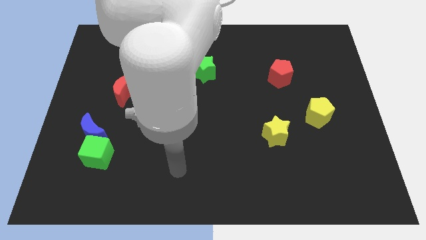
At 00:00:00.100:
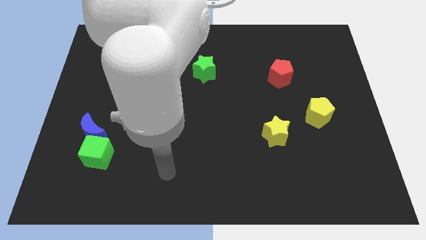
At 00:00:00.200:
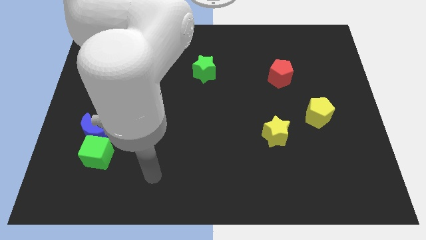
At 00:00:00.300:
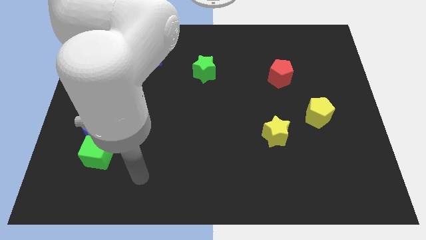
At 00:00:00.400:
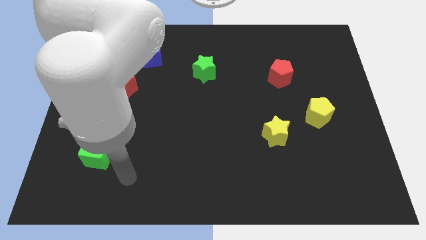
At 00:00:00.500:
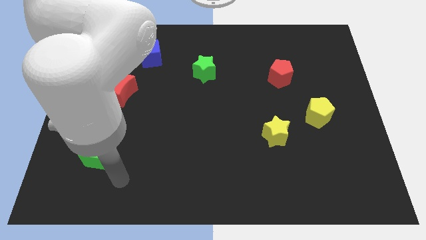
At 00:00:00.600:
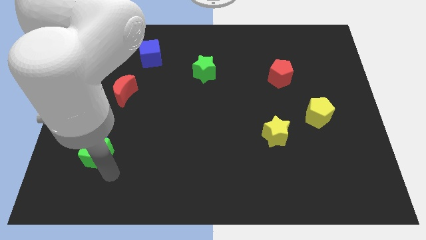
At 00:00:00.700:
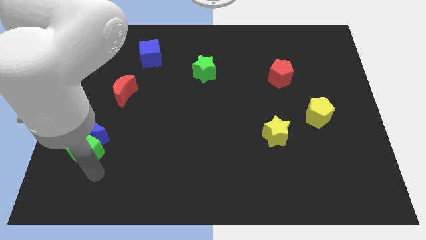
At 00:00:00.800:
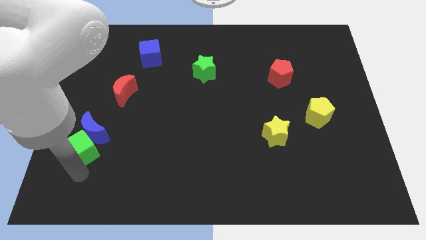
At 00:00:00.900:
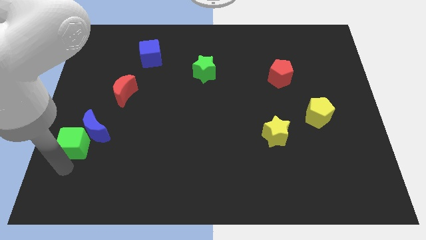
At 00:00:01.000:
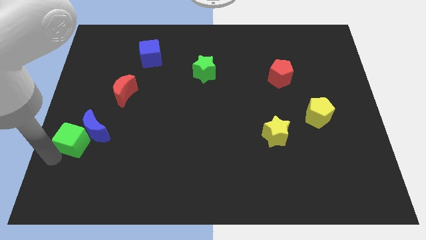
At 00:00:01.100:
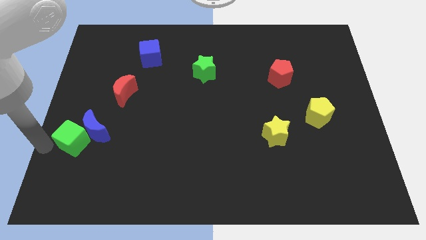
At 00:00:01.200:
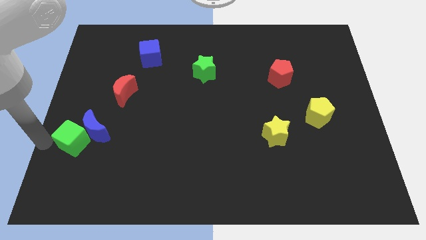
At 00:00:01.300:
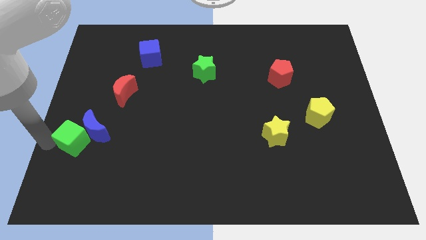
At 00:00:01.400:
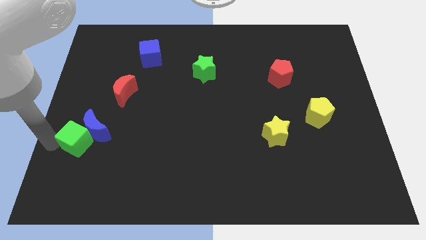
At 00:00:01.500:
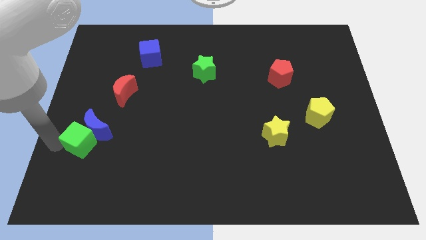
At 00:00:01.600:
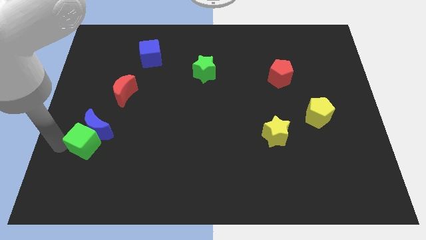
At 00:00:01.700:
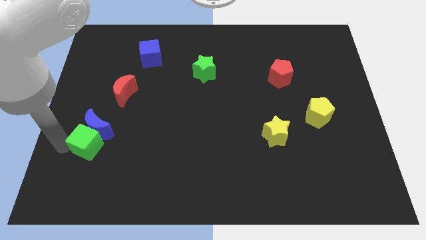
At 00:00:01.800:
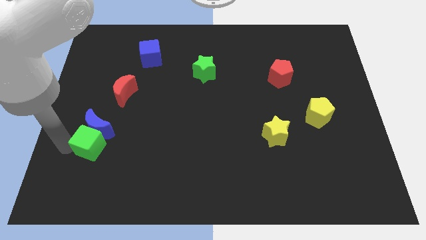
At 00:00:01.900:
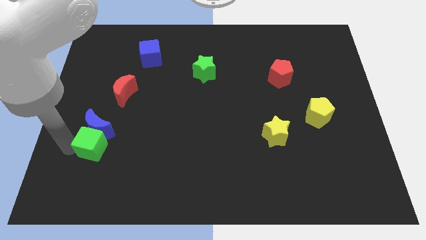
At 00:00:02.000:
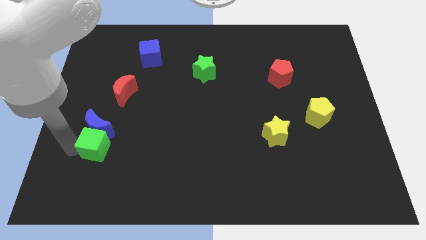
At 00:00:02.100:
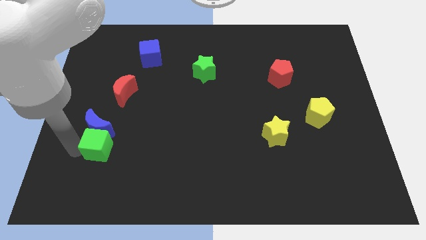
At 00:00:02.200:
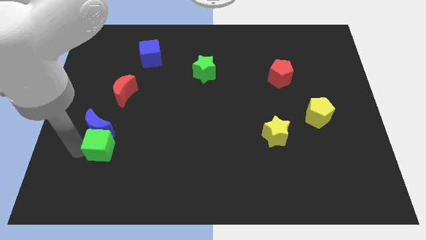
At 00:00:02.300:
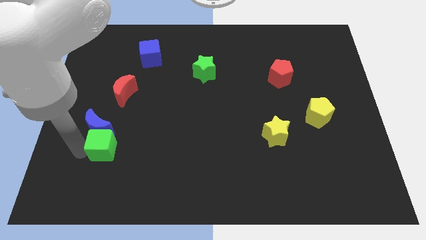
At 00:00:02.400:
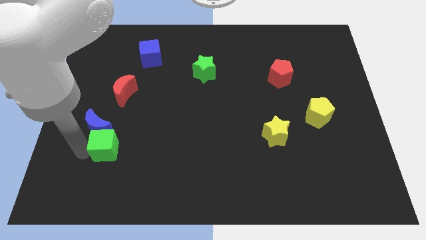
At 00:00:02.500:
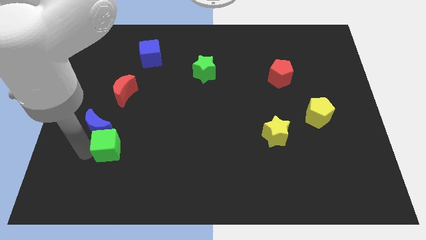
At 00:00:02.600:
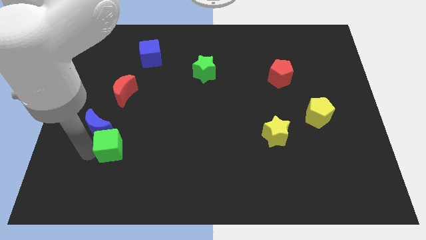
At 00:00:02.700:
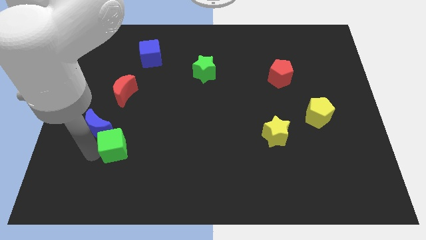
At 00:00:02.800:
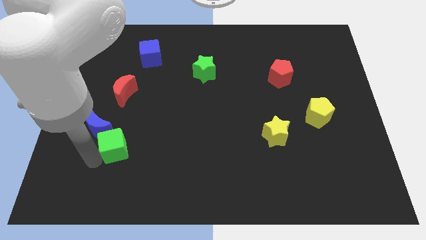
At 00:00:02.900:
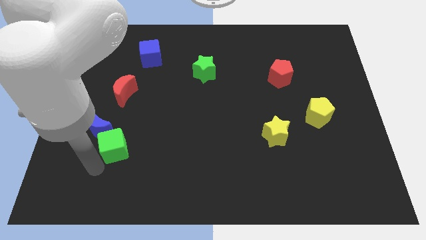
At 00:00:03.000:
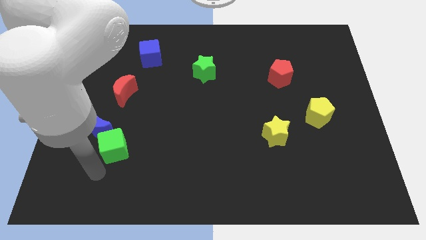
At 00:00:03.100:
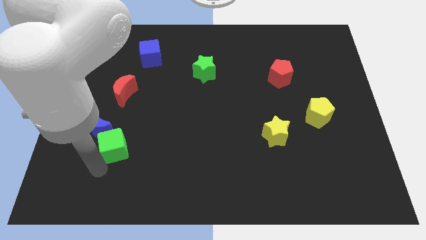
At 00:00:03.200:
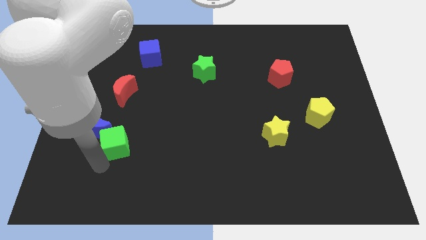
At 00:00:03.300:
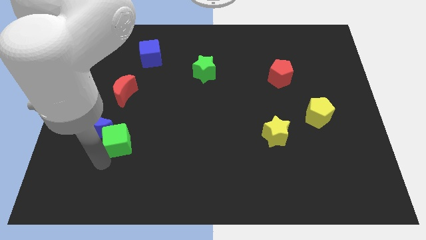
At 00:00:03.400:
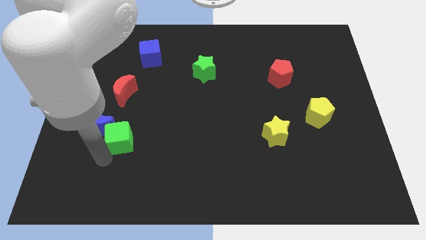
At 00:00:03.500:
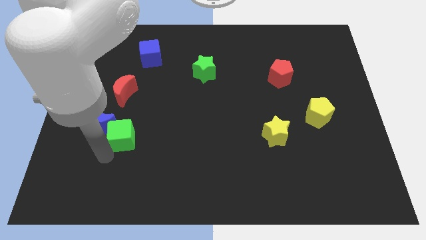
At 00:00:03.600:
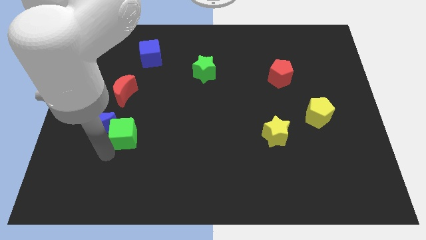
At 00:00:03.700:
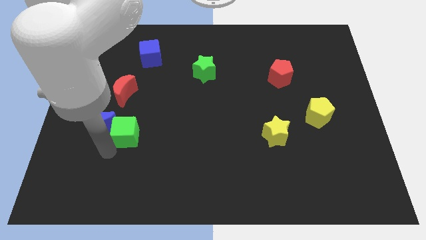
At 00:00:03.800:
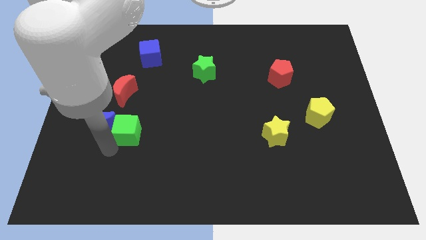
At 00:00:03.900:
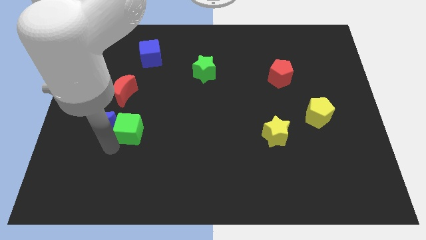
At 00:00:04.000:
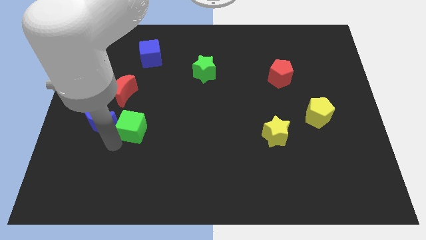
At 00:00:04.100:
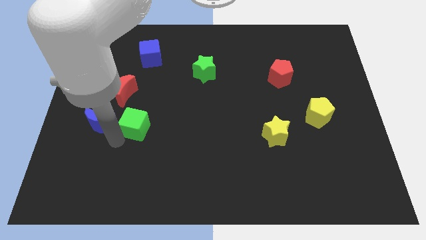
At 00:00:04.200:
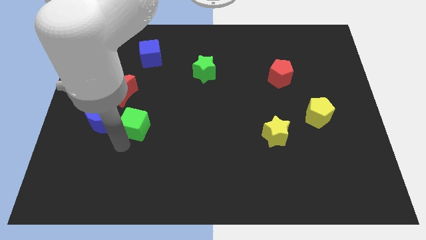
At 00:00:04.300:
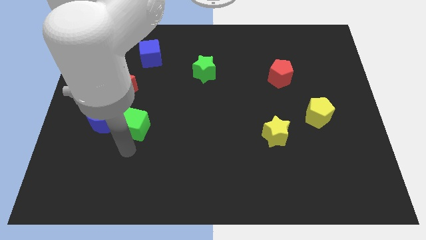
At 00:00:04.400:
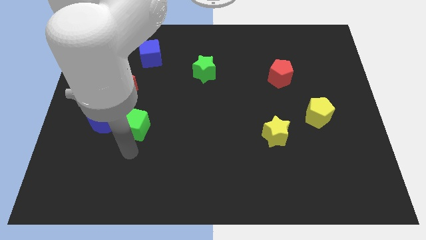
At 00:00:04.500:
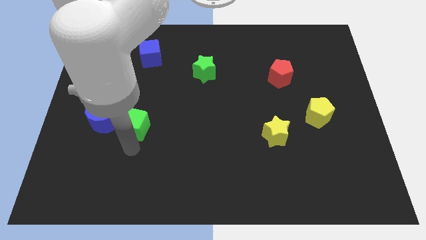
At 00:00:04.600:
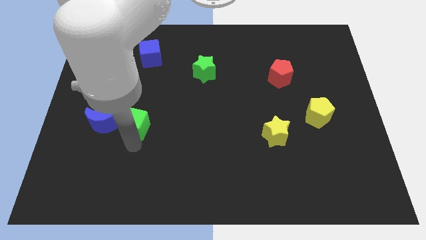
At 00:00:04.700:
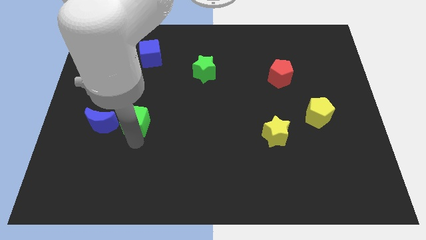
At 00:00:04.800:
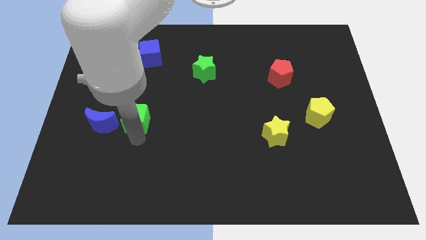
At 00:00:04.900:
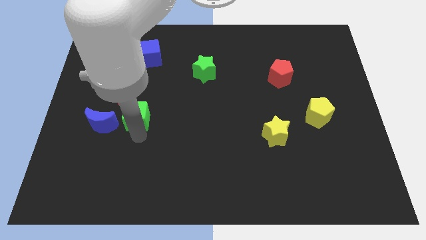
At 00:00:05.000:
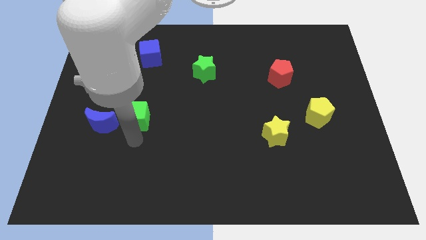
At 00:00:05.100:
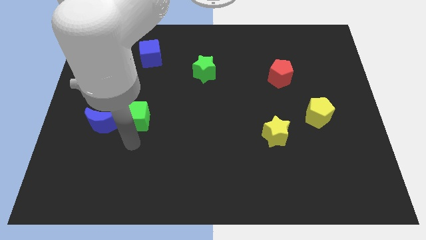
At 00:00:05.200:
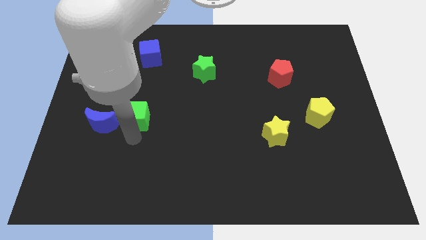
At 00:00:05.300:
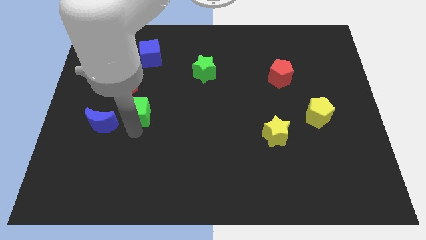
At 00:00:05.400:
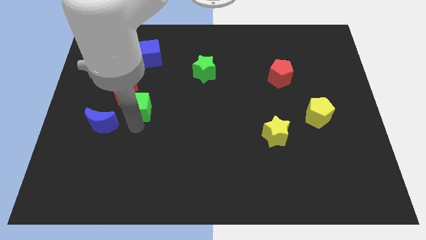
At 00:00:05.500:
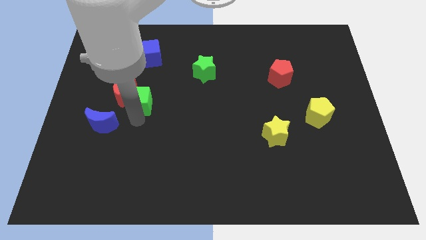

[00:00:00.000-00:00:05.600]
push the green cube below the blue cube

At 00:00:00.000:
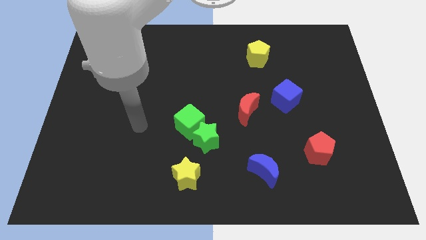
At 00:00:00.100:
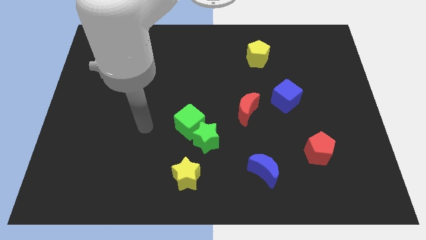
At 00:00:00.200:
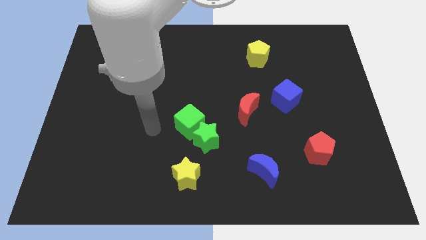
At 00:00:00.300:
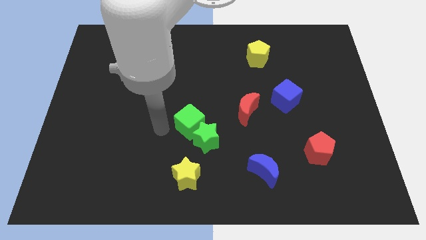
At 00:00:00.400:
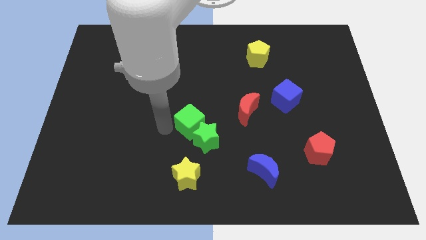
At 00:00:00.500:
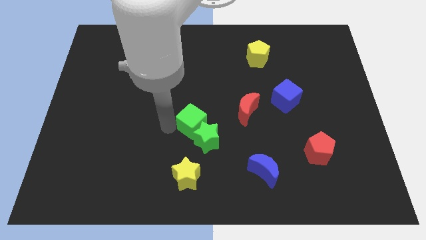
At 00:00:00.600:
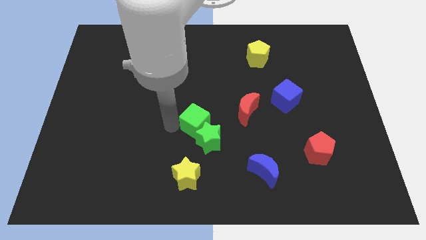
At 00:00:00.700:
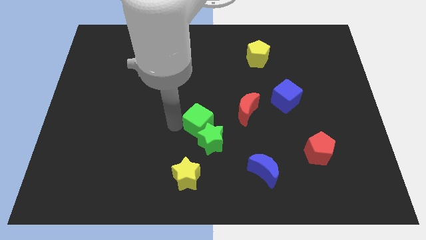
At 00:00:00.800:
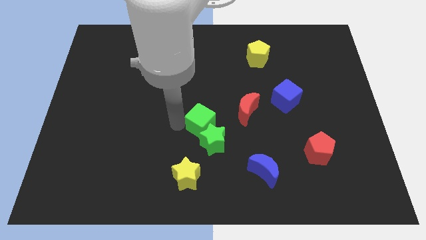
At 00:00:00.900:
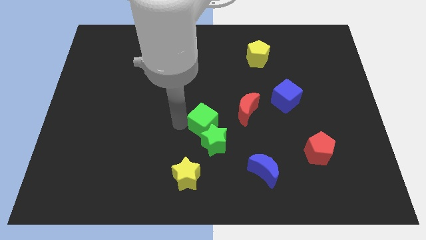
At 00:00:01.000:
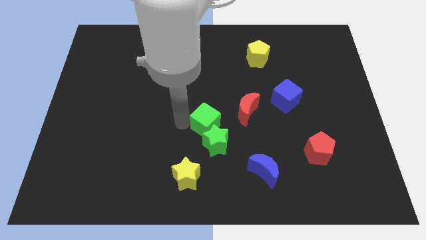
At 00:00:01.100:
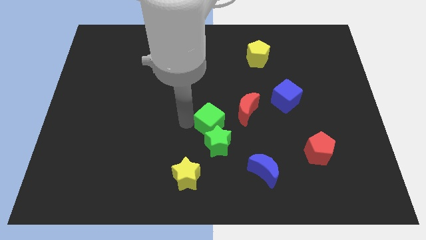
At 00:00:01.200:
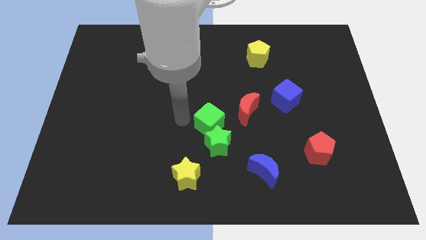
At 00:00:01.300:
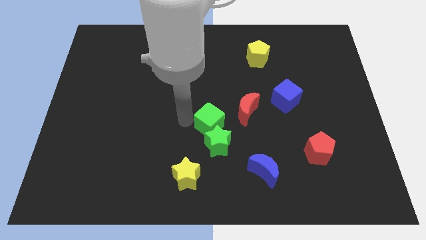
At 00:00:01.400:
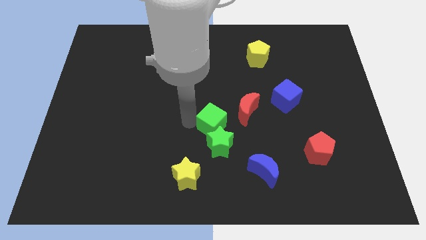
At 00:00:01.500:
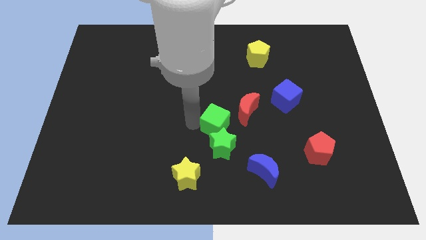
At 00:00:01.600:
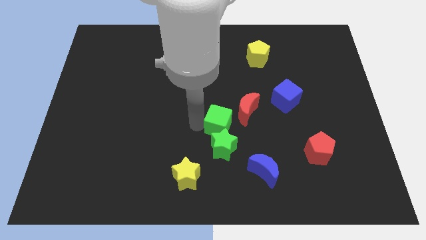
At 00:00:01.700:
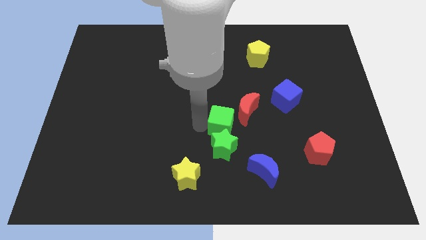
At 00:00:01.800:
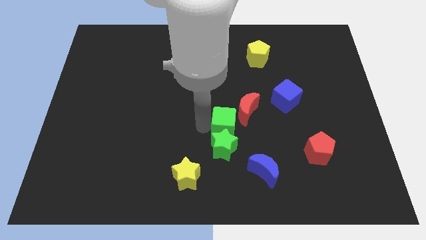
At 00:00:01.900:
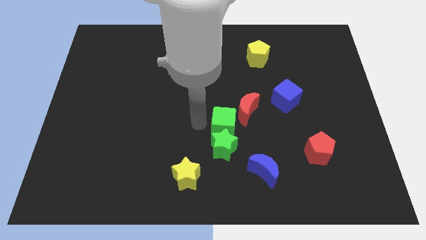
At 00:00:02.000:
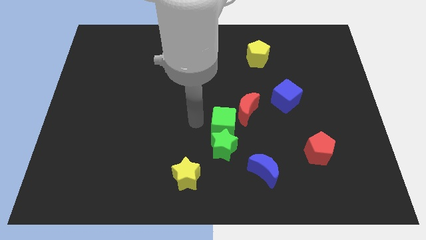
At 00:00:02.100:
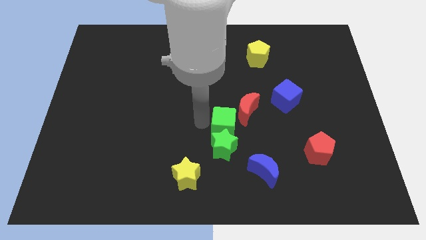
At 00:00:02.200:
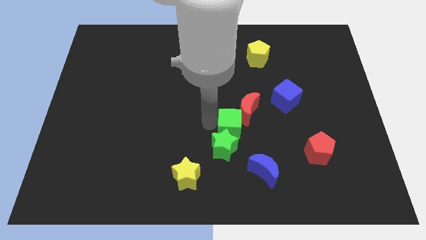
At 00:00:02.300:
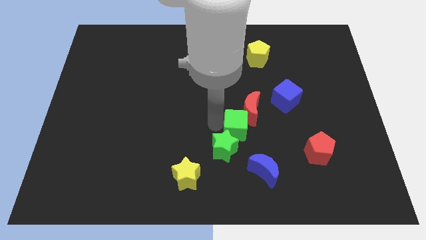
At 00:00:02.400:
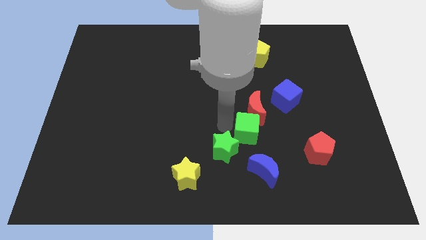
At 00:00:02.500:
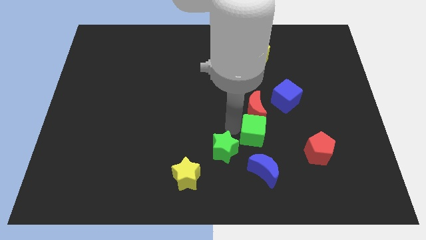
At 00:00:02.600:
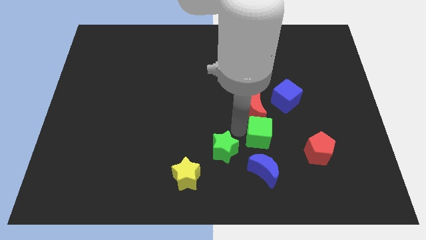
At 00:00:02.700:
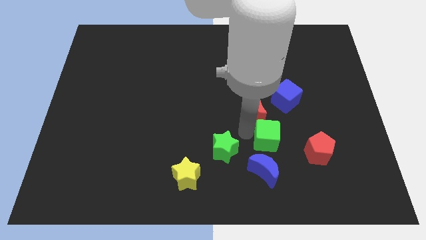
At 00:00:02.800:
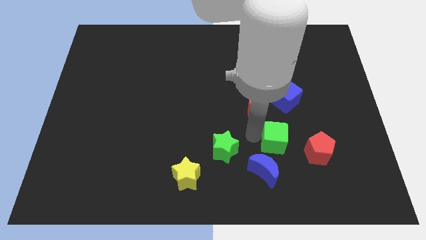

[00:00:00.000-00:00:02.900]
move the green cube to the bottom of the blue cube
